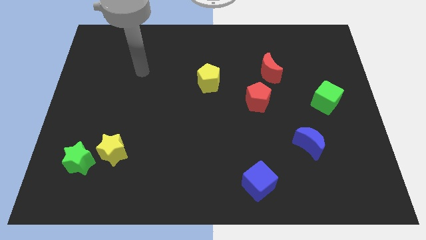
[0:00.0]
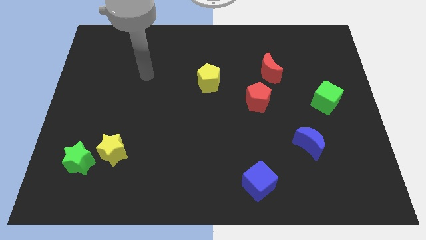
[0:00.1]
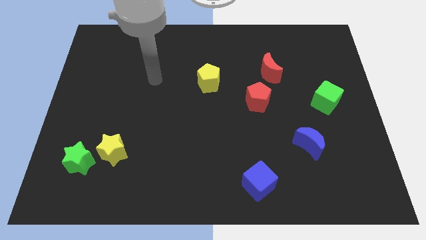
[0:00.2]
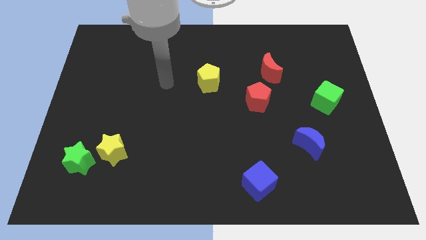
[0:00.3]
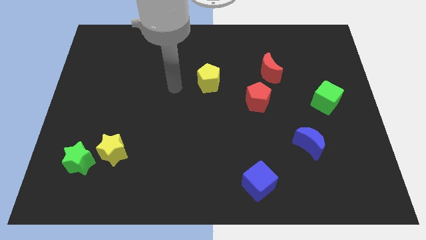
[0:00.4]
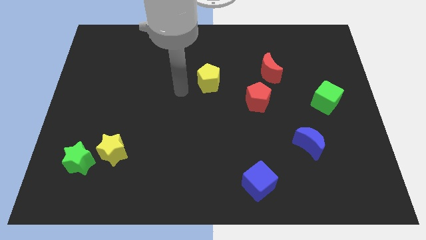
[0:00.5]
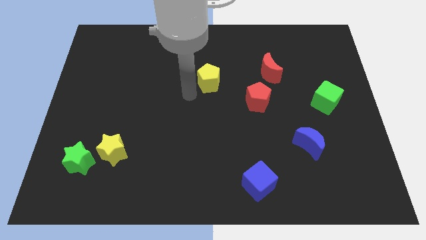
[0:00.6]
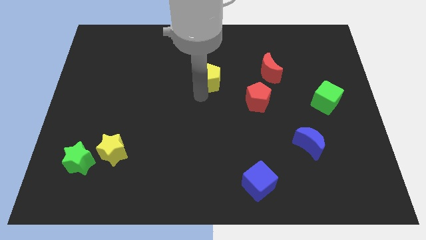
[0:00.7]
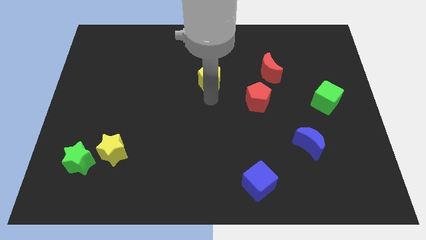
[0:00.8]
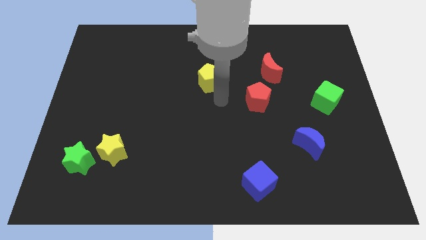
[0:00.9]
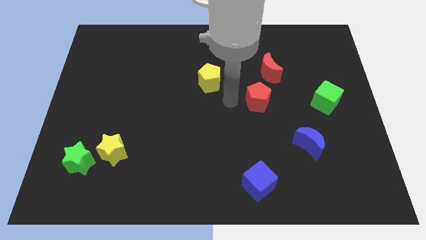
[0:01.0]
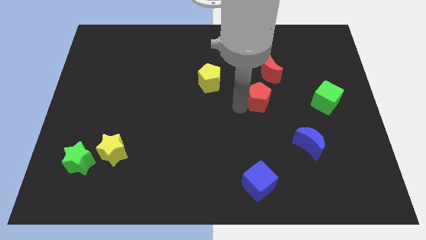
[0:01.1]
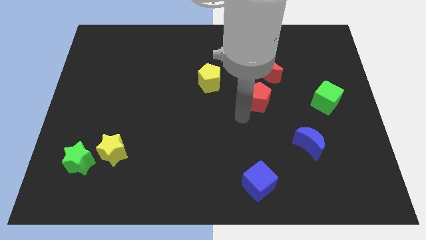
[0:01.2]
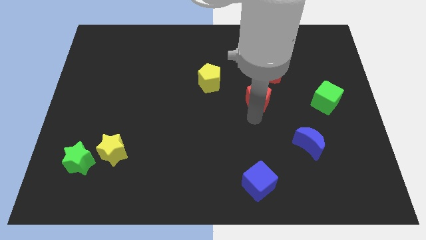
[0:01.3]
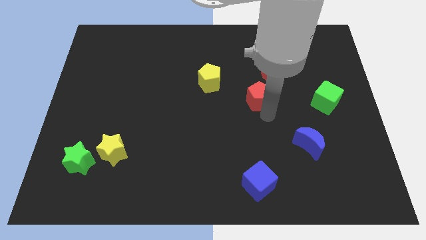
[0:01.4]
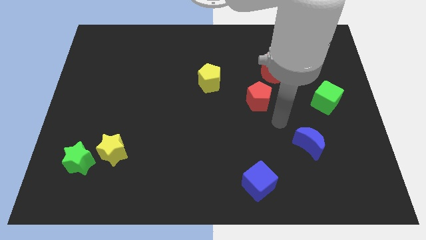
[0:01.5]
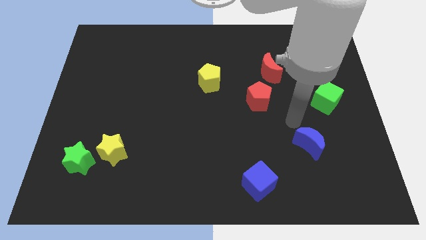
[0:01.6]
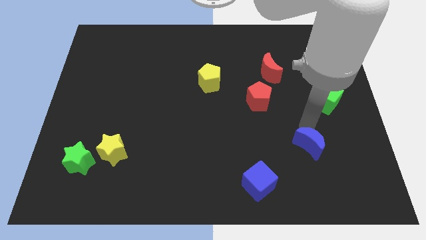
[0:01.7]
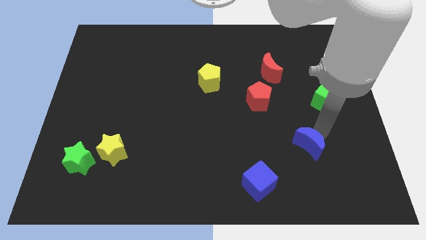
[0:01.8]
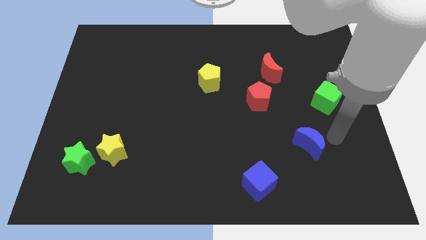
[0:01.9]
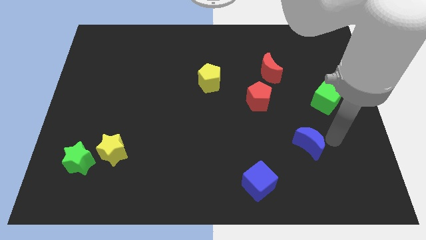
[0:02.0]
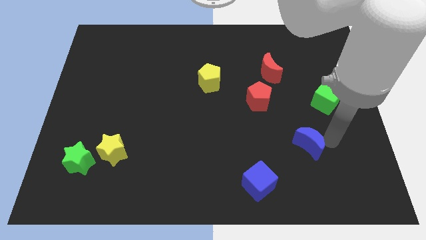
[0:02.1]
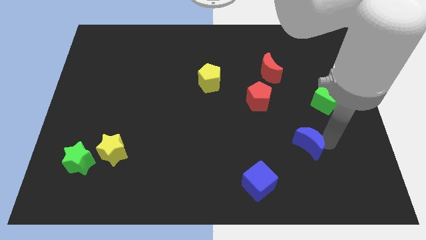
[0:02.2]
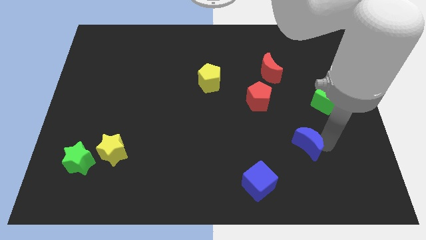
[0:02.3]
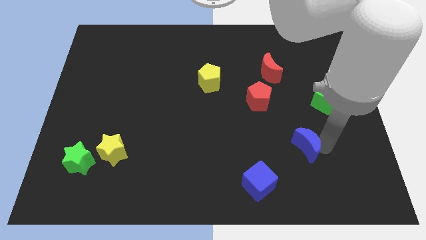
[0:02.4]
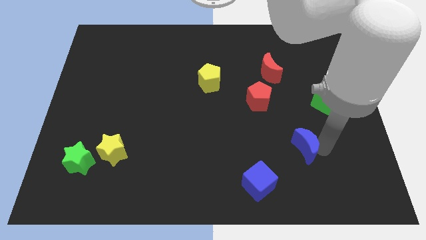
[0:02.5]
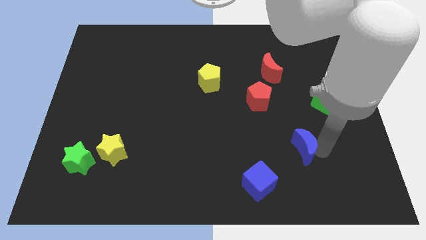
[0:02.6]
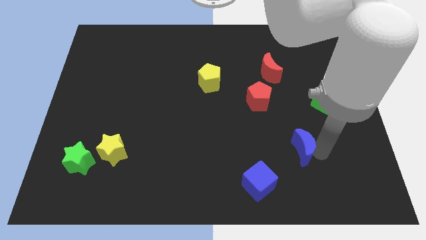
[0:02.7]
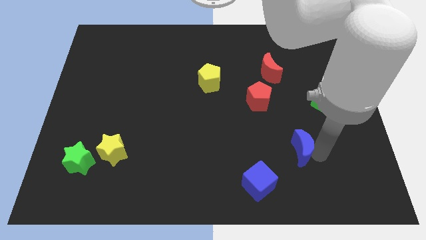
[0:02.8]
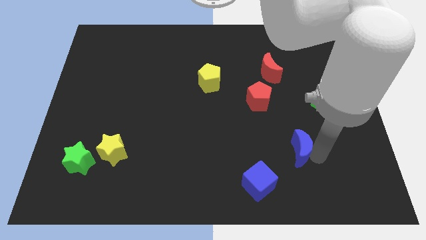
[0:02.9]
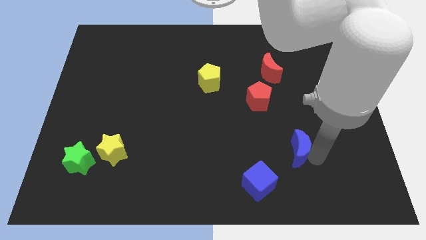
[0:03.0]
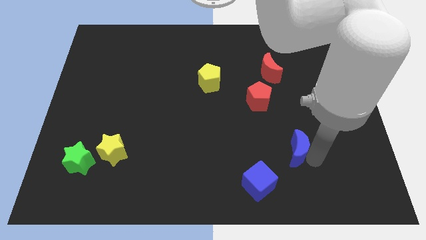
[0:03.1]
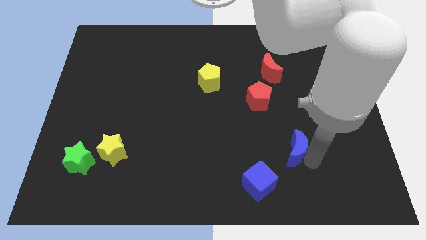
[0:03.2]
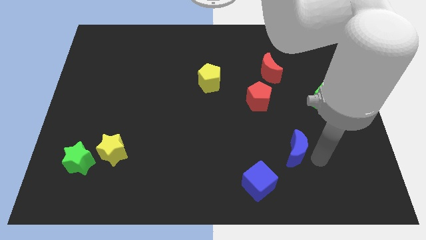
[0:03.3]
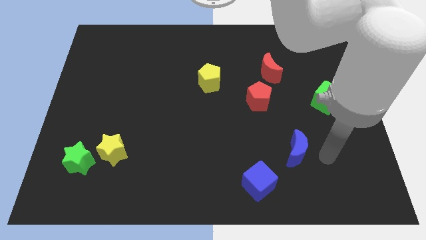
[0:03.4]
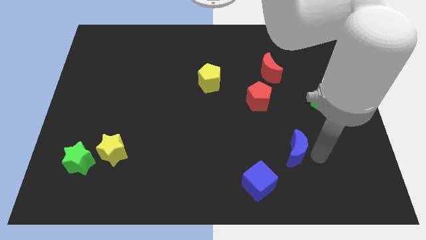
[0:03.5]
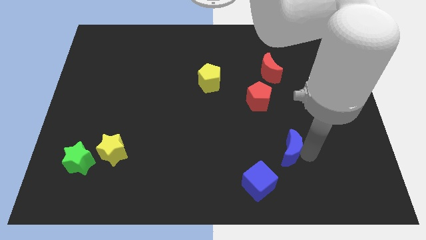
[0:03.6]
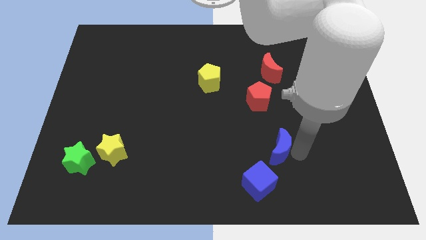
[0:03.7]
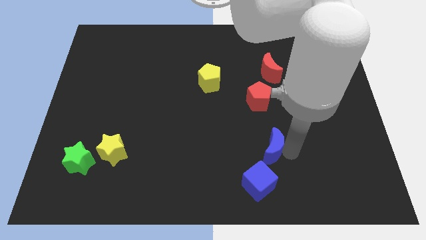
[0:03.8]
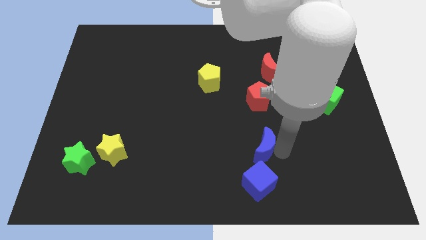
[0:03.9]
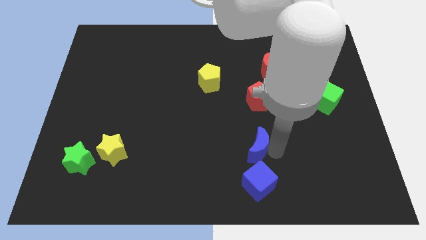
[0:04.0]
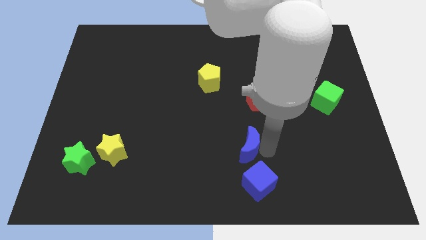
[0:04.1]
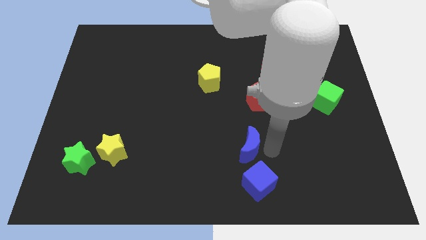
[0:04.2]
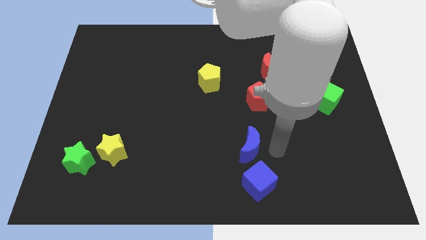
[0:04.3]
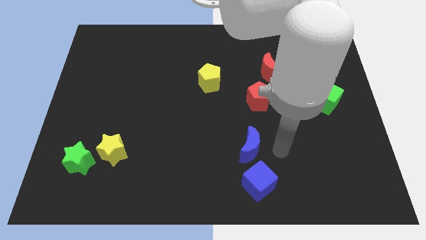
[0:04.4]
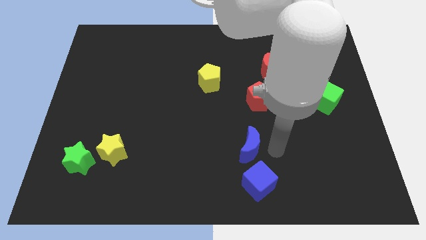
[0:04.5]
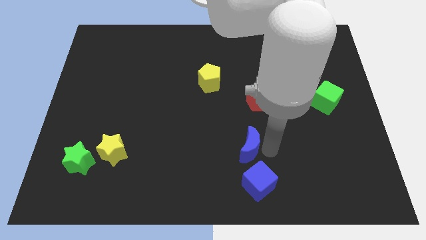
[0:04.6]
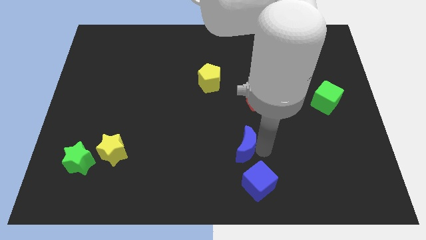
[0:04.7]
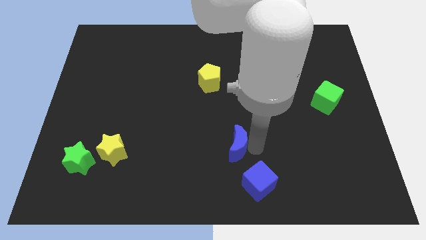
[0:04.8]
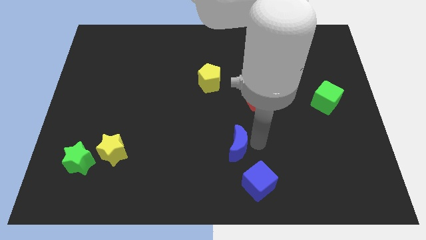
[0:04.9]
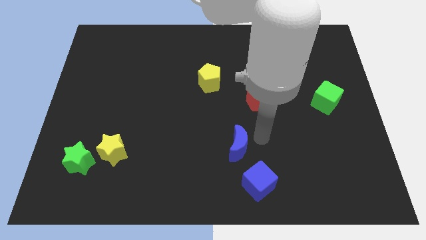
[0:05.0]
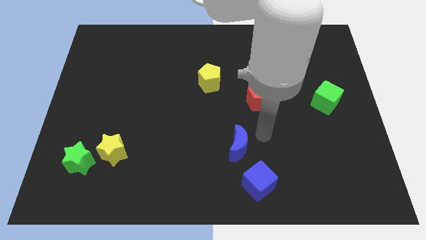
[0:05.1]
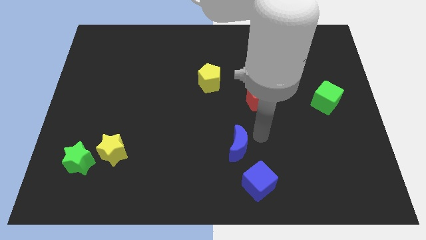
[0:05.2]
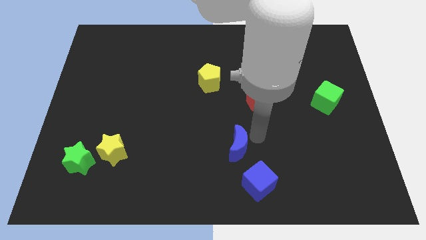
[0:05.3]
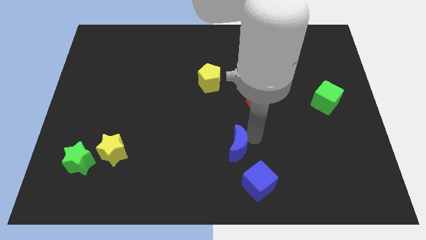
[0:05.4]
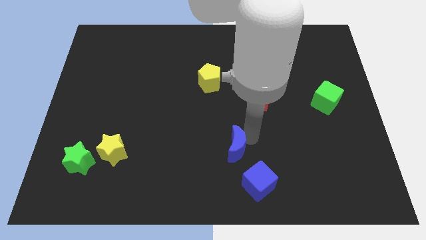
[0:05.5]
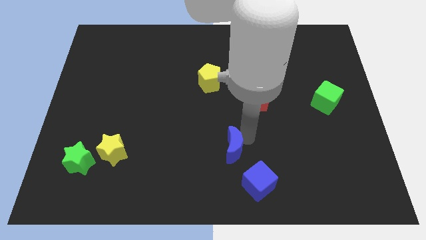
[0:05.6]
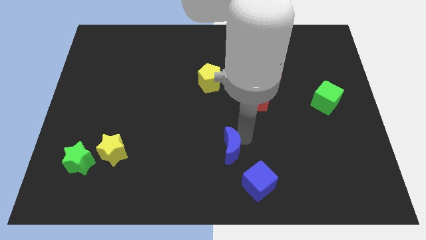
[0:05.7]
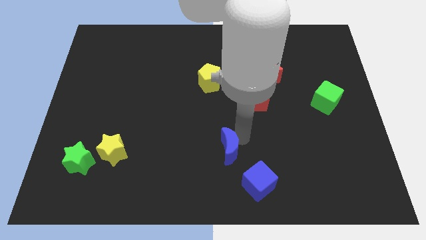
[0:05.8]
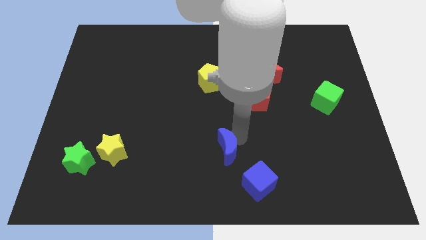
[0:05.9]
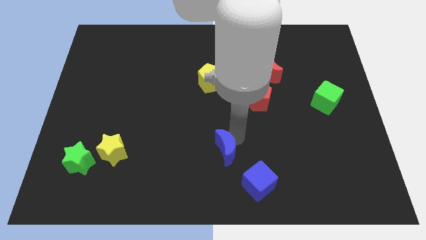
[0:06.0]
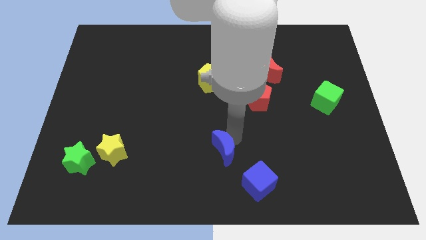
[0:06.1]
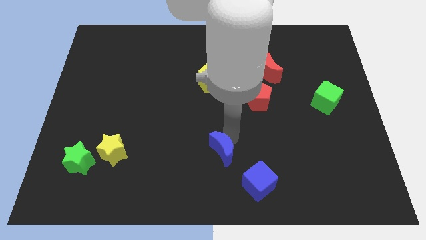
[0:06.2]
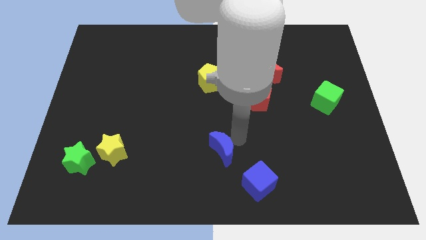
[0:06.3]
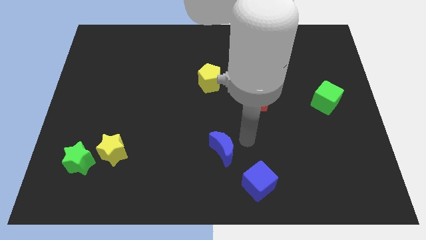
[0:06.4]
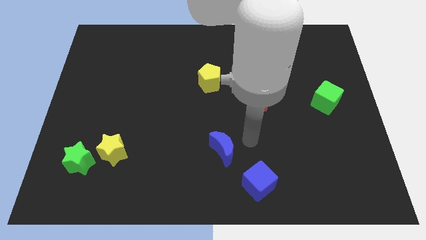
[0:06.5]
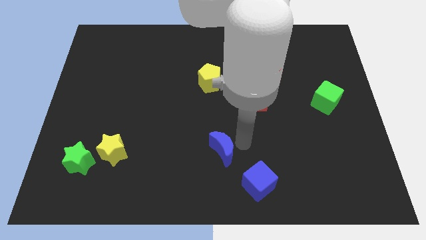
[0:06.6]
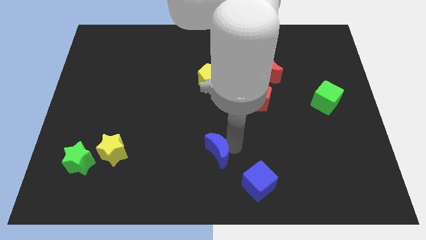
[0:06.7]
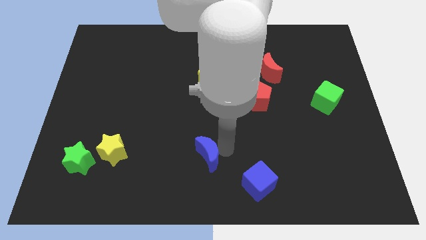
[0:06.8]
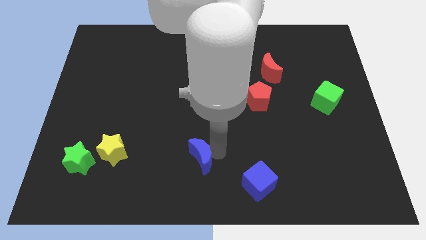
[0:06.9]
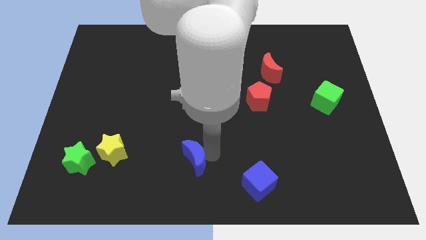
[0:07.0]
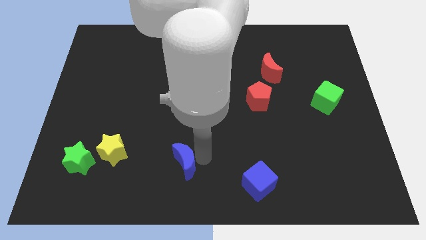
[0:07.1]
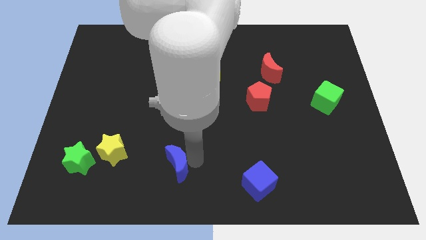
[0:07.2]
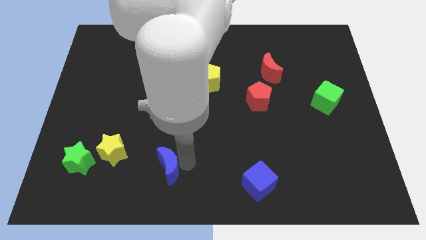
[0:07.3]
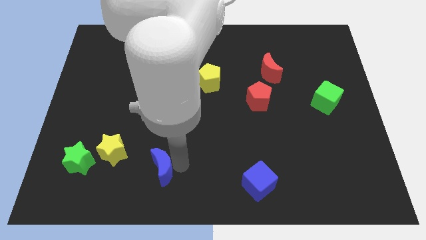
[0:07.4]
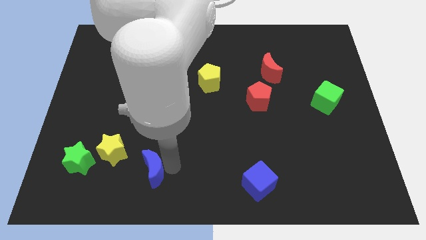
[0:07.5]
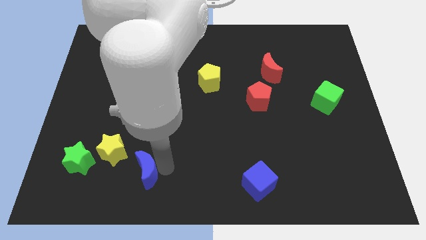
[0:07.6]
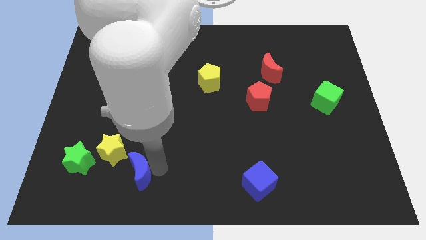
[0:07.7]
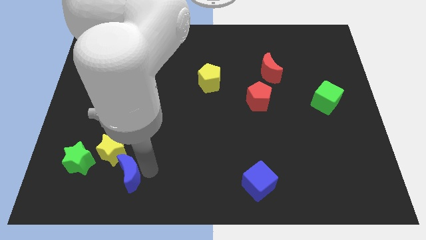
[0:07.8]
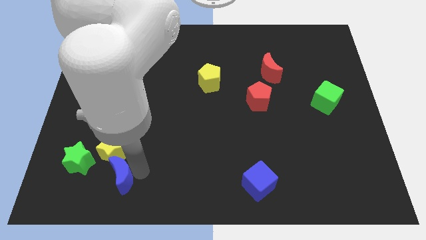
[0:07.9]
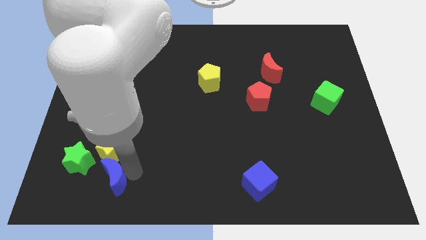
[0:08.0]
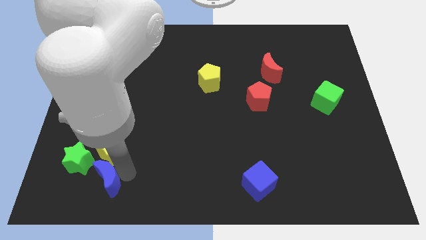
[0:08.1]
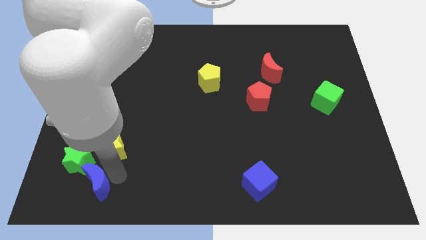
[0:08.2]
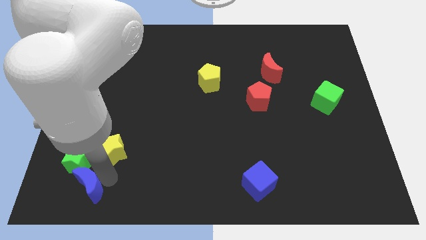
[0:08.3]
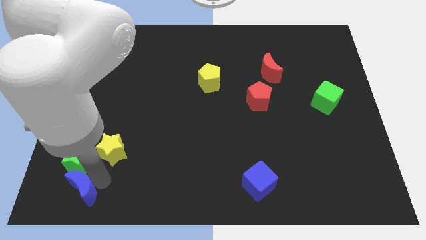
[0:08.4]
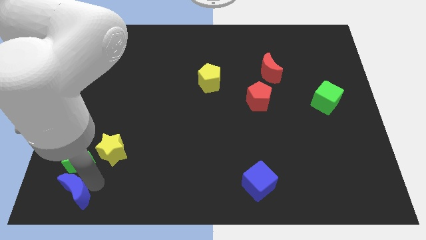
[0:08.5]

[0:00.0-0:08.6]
move the blue moon to the lower left corner
